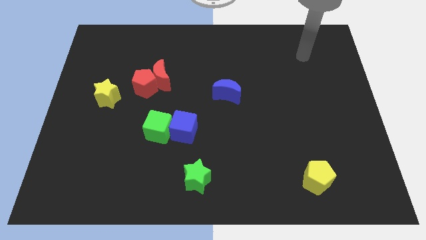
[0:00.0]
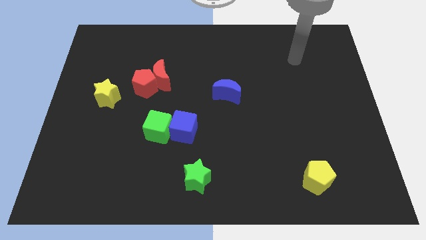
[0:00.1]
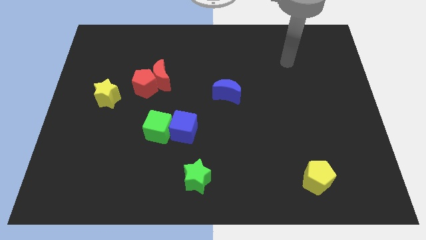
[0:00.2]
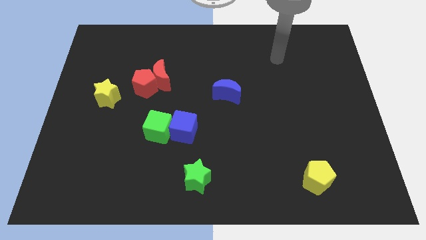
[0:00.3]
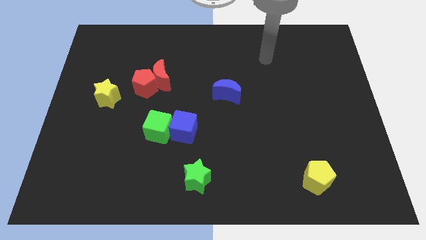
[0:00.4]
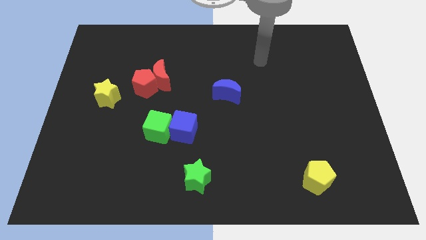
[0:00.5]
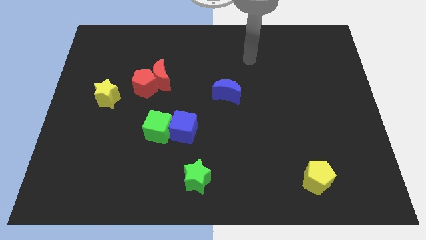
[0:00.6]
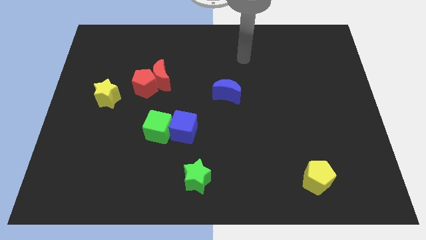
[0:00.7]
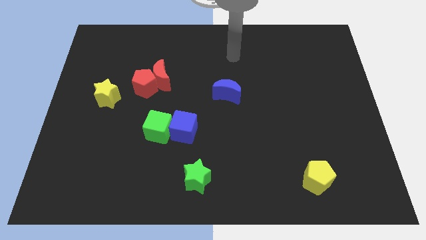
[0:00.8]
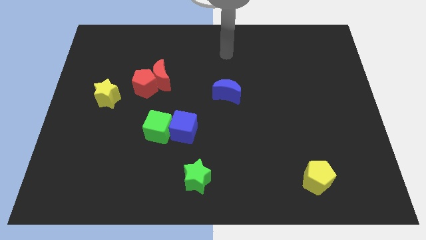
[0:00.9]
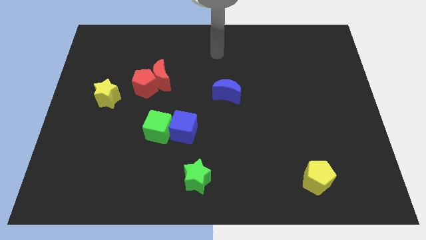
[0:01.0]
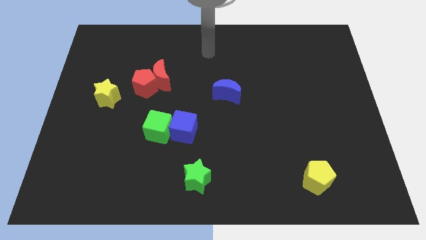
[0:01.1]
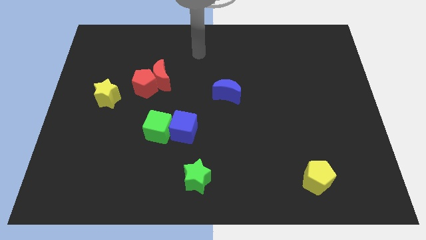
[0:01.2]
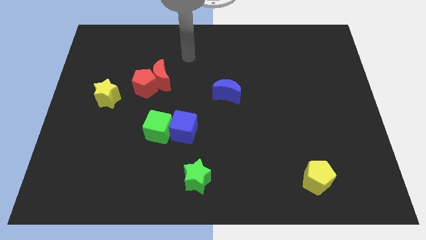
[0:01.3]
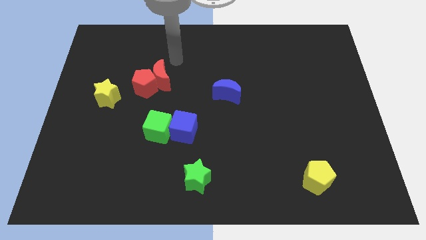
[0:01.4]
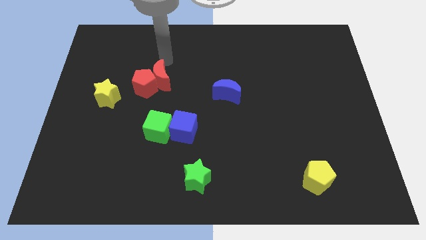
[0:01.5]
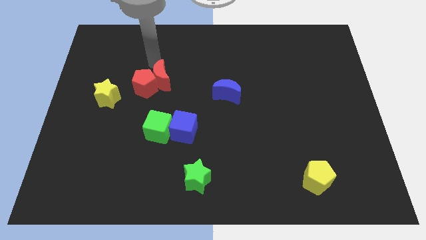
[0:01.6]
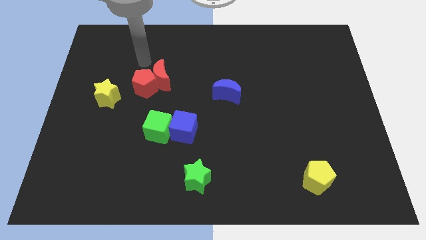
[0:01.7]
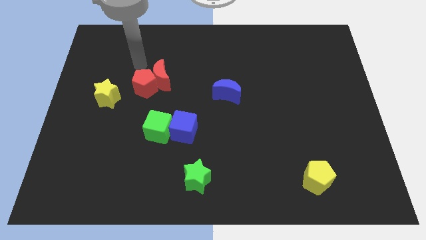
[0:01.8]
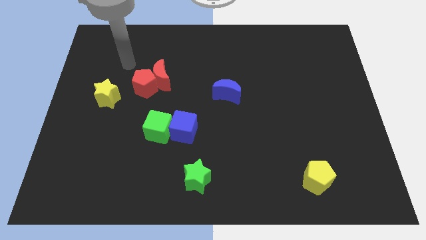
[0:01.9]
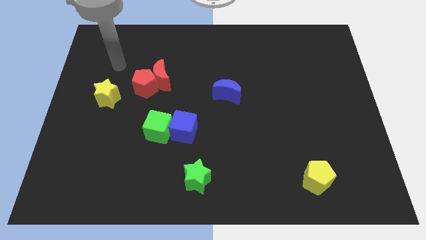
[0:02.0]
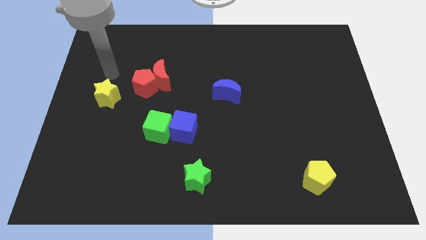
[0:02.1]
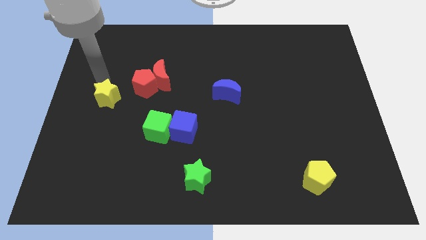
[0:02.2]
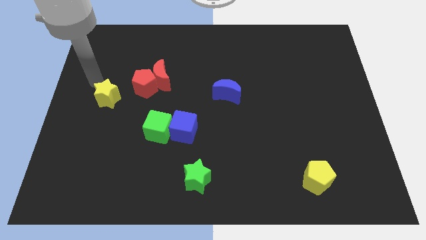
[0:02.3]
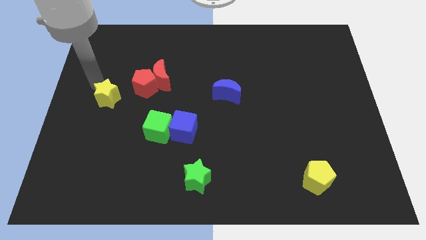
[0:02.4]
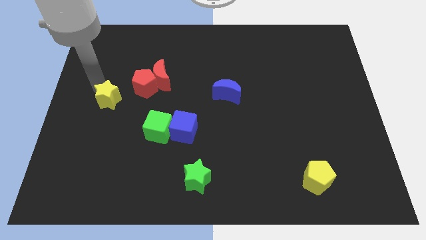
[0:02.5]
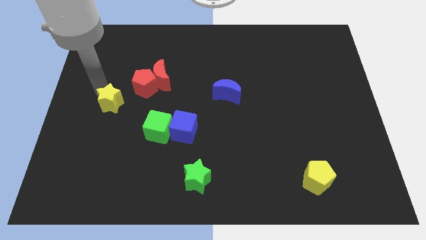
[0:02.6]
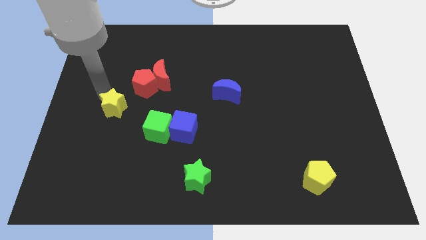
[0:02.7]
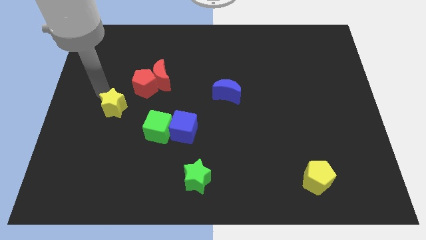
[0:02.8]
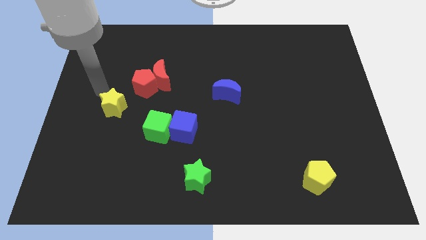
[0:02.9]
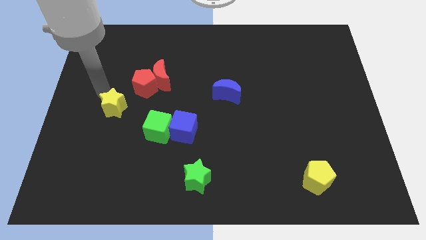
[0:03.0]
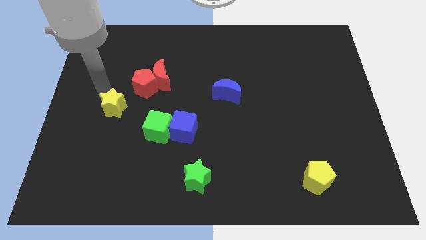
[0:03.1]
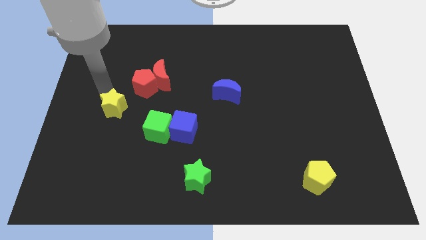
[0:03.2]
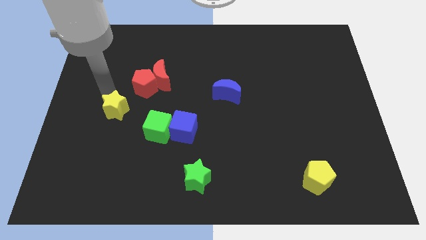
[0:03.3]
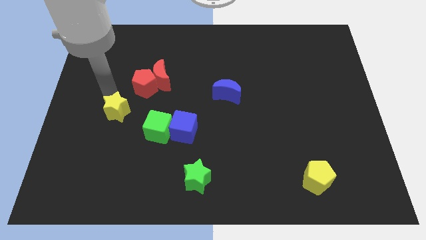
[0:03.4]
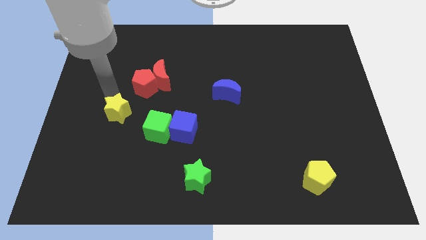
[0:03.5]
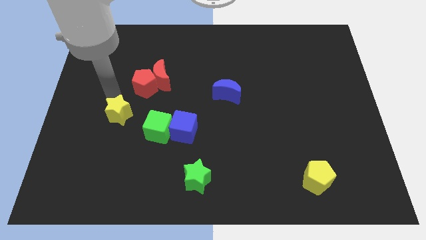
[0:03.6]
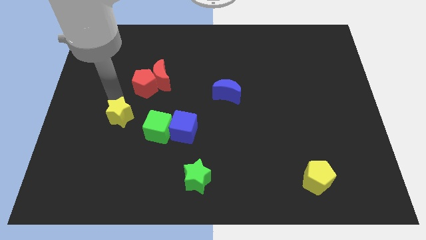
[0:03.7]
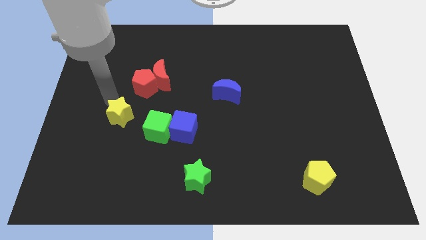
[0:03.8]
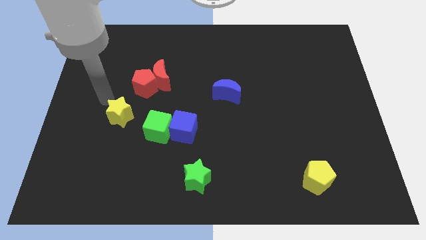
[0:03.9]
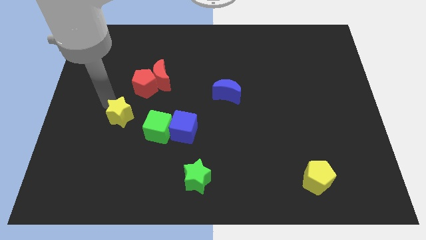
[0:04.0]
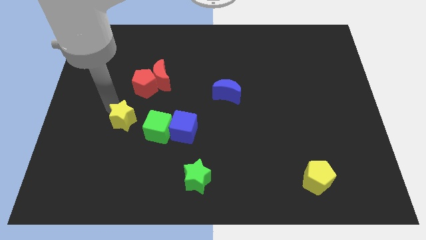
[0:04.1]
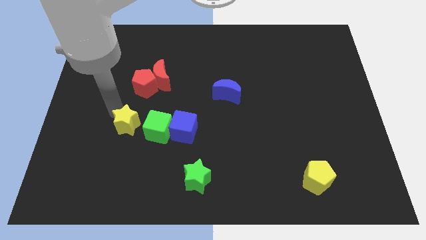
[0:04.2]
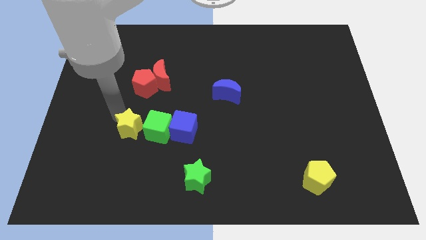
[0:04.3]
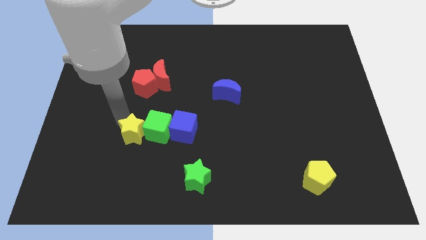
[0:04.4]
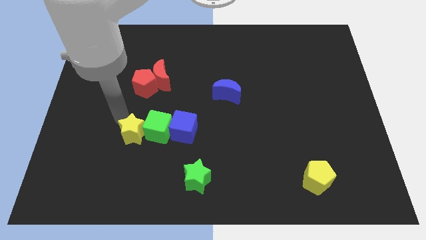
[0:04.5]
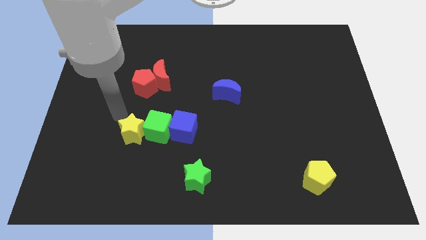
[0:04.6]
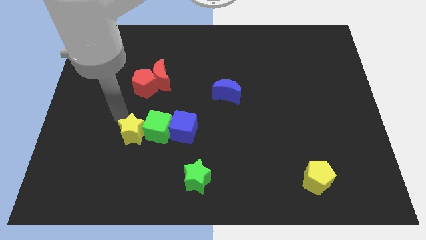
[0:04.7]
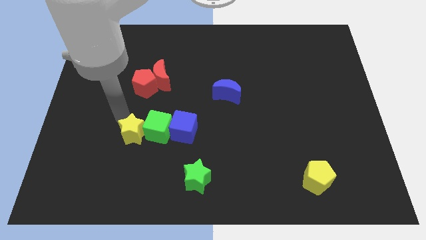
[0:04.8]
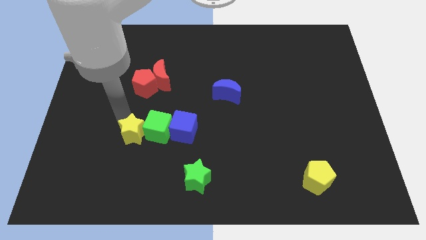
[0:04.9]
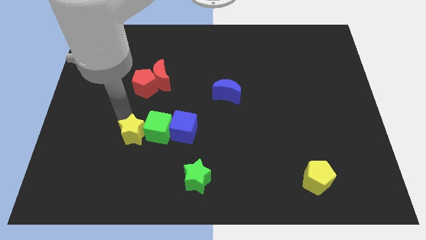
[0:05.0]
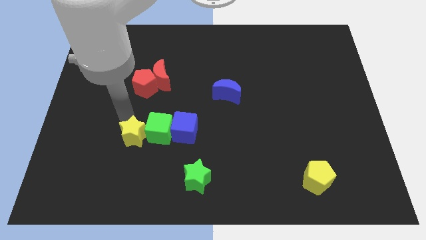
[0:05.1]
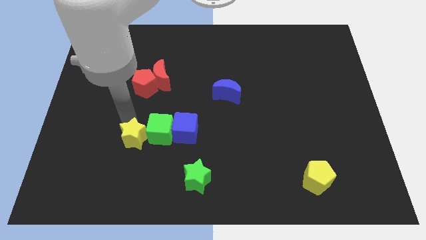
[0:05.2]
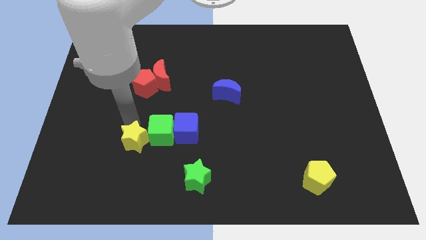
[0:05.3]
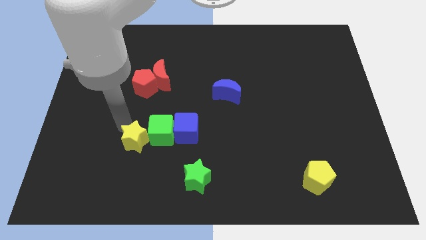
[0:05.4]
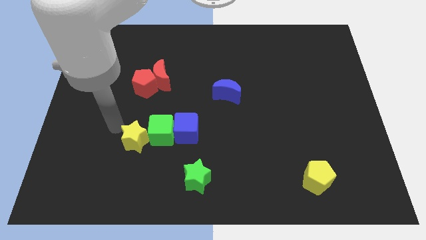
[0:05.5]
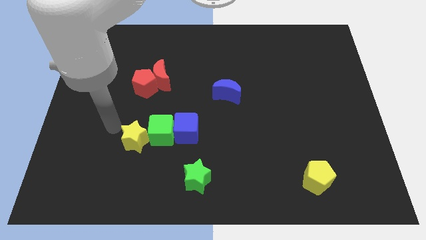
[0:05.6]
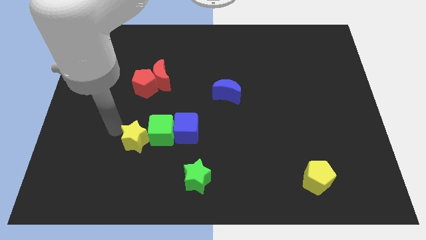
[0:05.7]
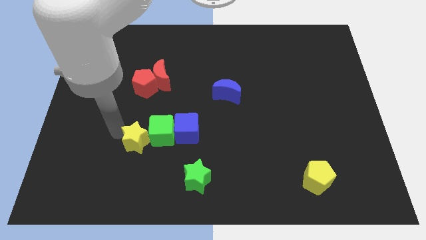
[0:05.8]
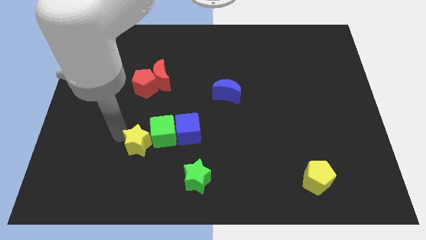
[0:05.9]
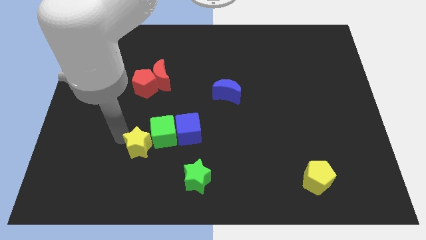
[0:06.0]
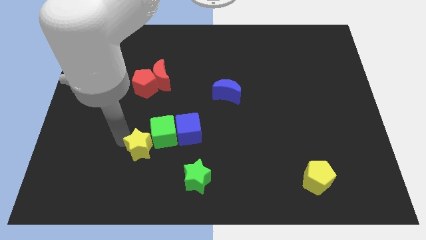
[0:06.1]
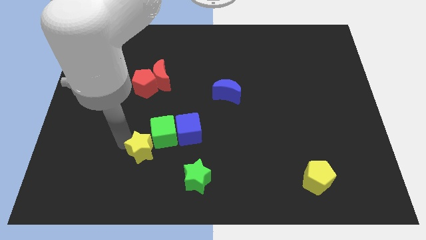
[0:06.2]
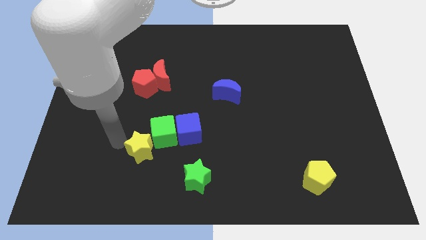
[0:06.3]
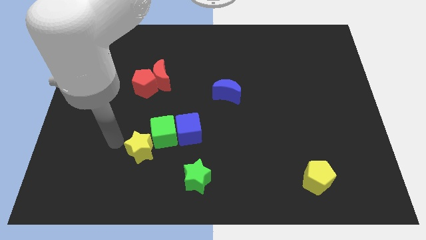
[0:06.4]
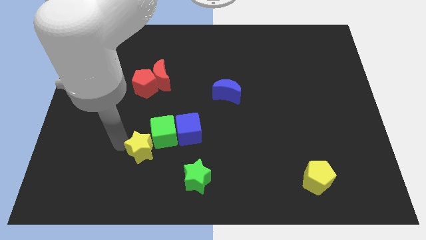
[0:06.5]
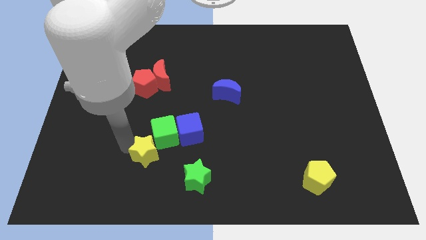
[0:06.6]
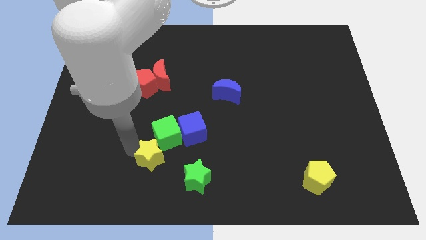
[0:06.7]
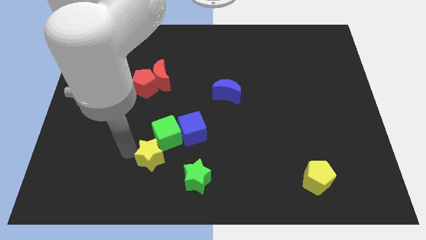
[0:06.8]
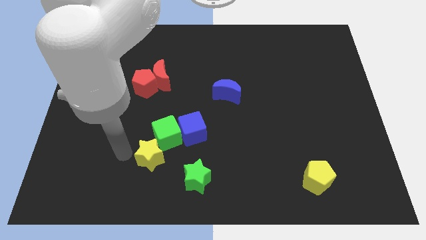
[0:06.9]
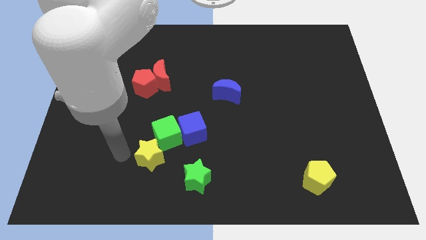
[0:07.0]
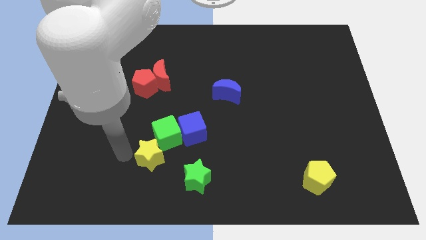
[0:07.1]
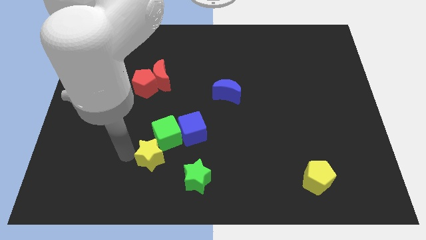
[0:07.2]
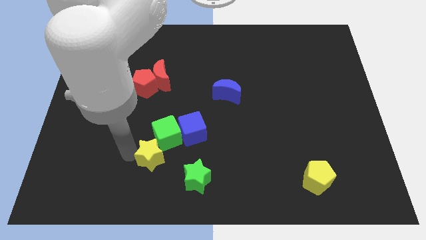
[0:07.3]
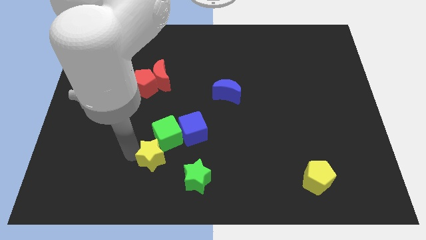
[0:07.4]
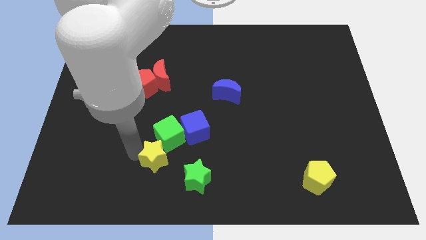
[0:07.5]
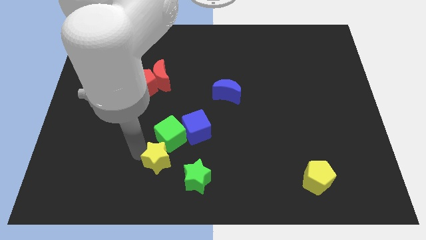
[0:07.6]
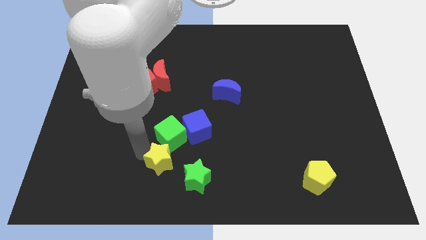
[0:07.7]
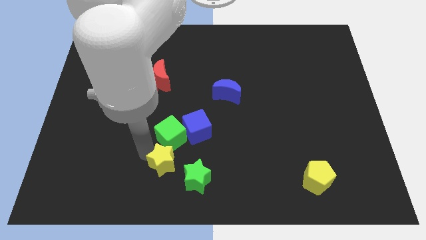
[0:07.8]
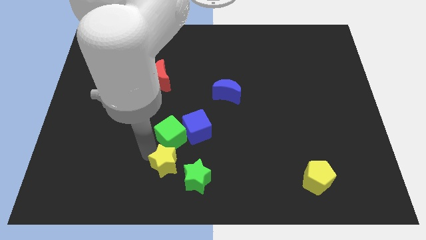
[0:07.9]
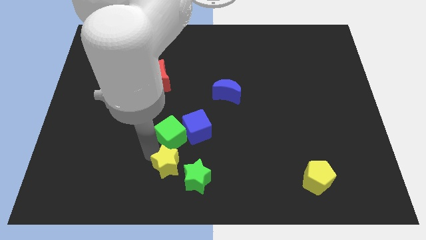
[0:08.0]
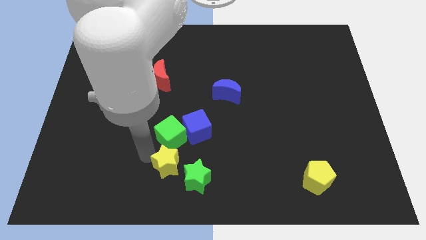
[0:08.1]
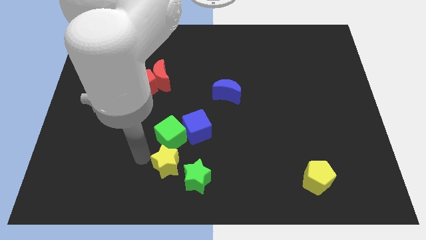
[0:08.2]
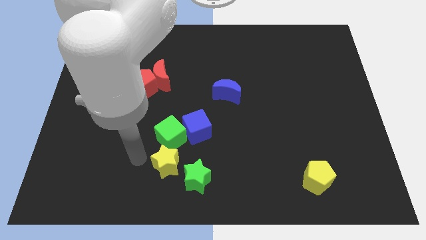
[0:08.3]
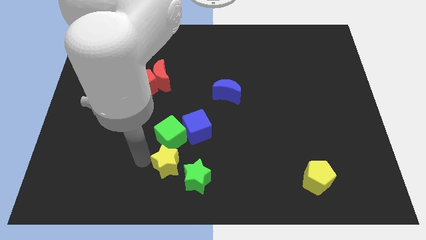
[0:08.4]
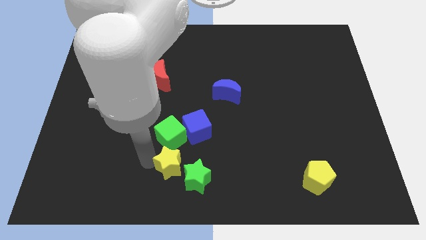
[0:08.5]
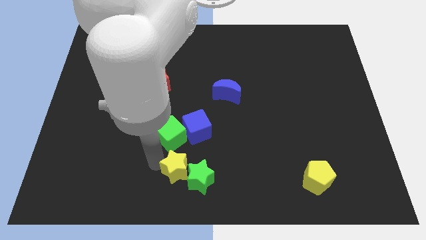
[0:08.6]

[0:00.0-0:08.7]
move the yellow star next to the green star
